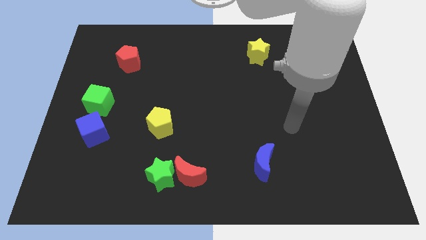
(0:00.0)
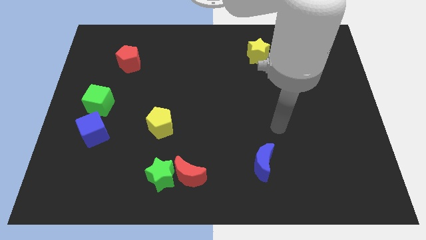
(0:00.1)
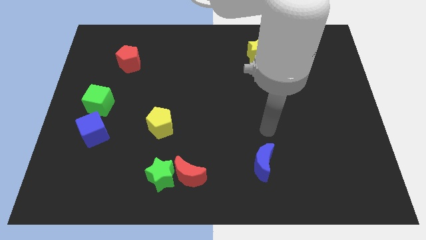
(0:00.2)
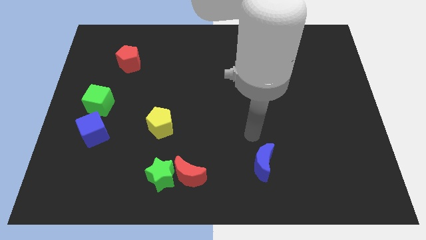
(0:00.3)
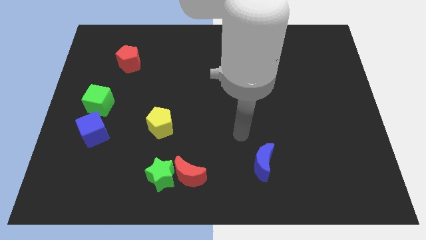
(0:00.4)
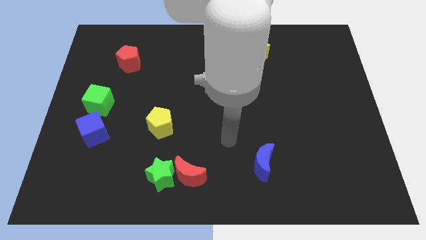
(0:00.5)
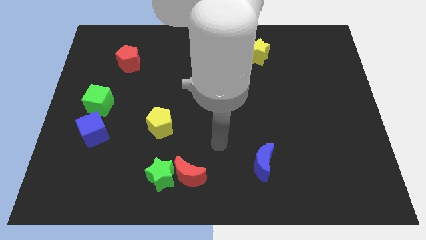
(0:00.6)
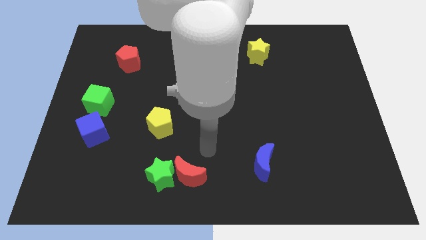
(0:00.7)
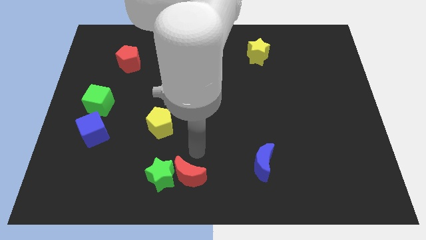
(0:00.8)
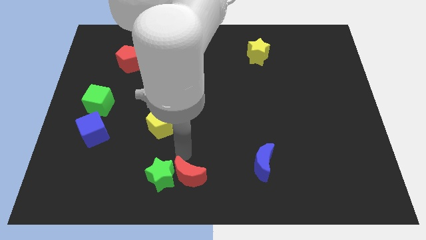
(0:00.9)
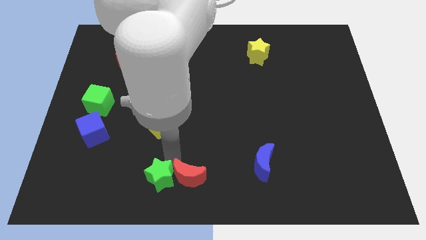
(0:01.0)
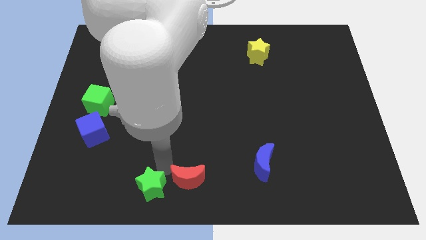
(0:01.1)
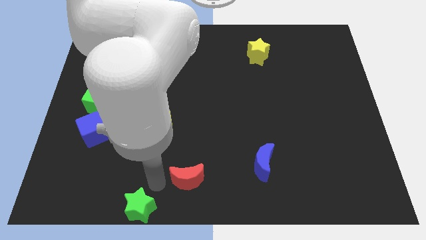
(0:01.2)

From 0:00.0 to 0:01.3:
move the red moon away from the green star

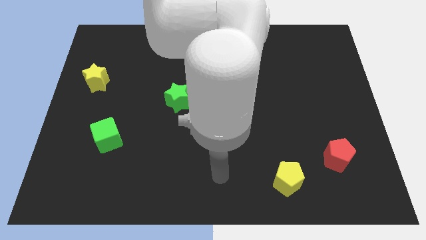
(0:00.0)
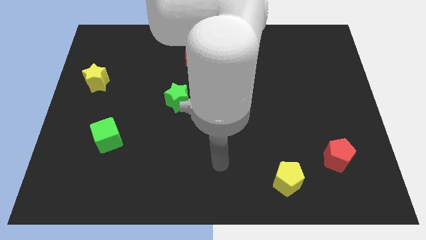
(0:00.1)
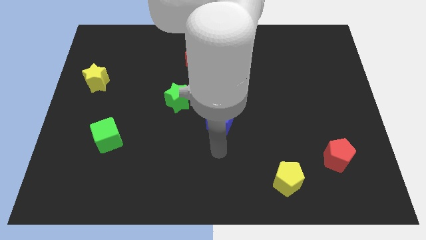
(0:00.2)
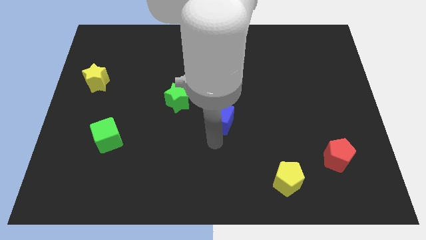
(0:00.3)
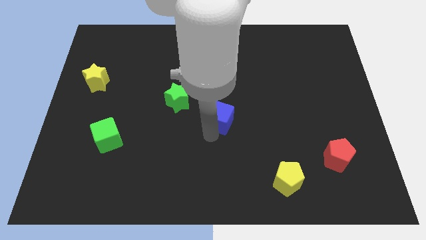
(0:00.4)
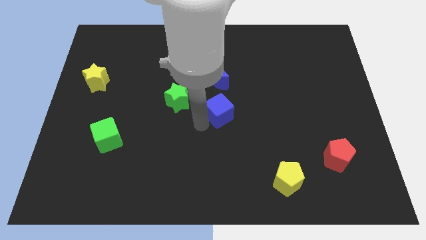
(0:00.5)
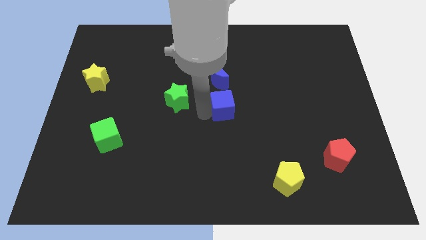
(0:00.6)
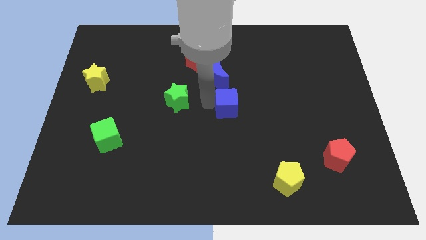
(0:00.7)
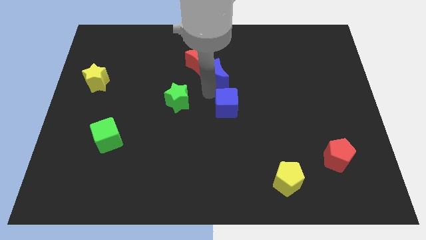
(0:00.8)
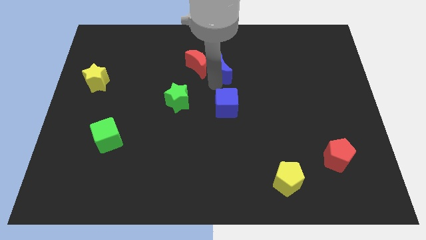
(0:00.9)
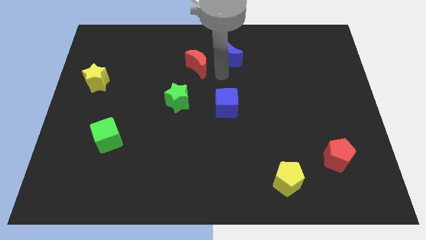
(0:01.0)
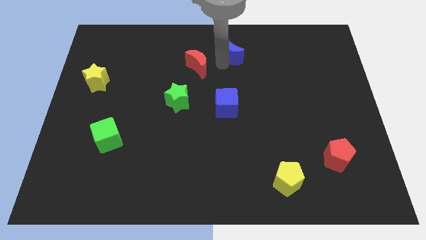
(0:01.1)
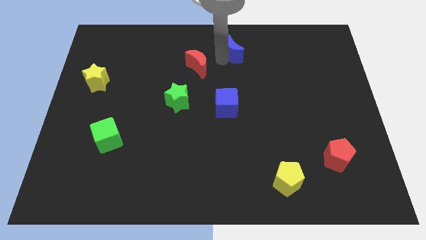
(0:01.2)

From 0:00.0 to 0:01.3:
separate the red moon from the blue moon

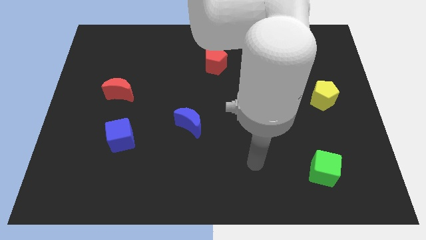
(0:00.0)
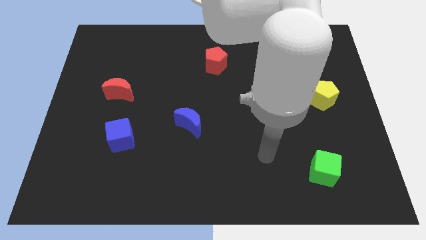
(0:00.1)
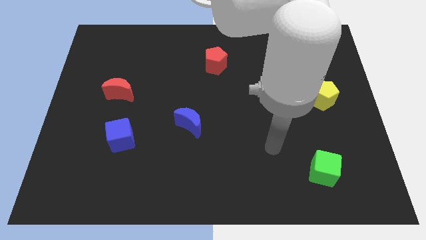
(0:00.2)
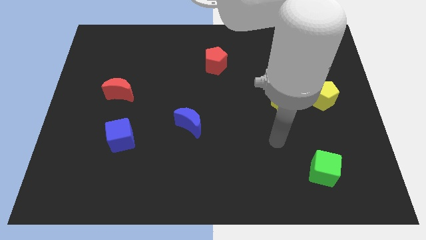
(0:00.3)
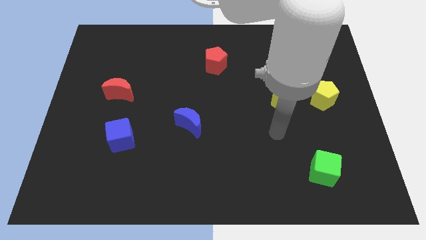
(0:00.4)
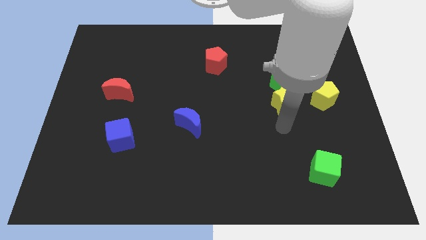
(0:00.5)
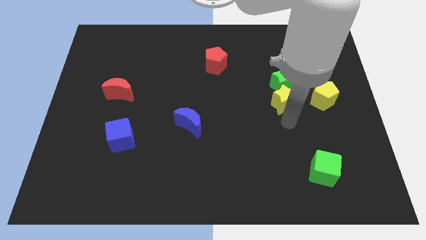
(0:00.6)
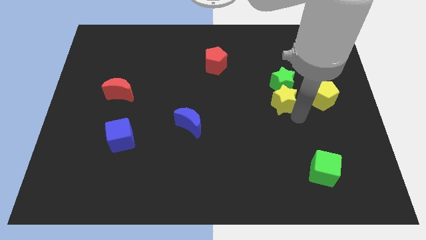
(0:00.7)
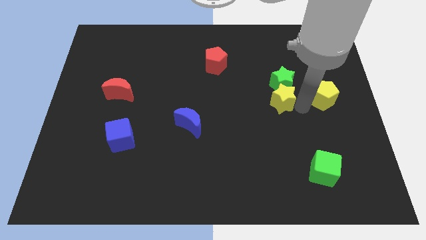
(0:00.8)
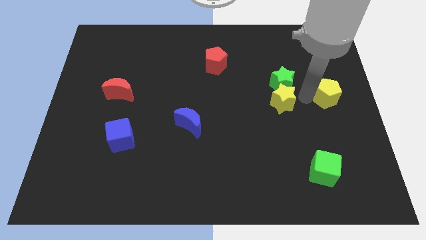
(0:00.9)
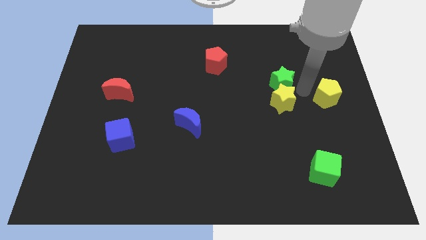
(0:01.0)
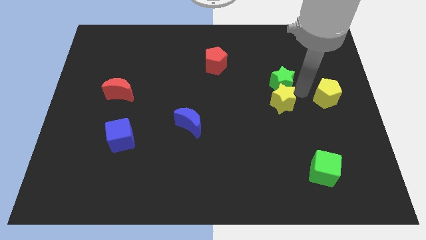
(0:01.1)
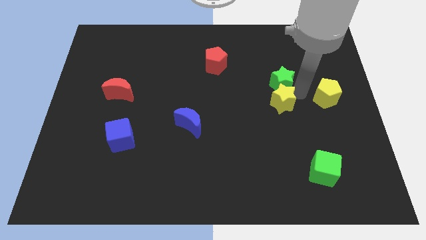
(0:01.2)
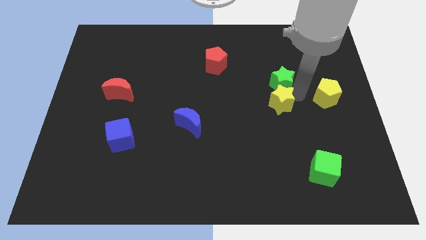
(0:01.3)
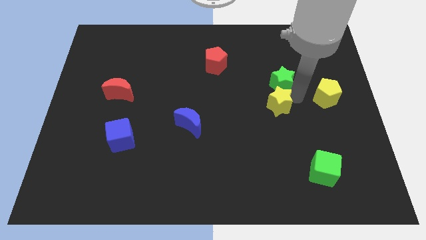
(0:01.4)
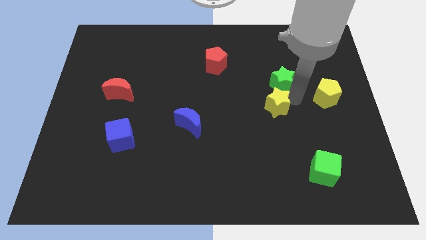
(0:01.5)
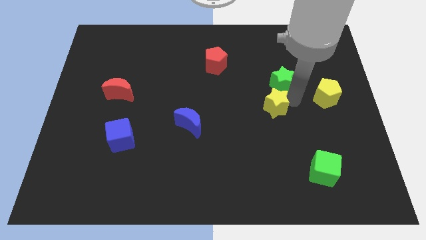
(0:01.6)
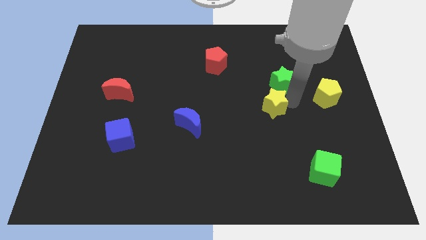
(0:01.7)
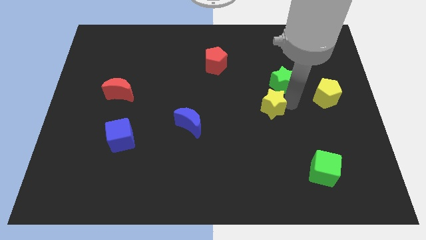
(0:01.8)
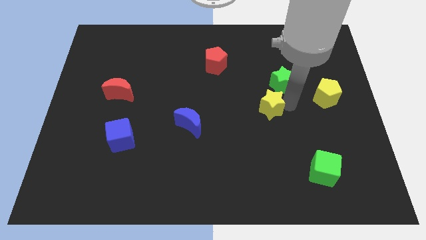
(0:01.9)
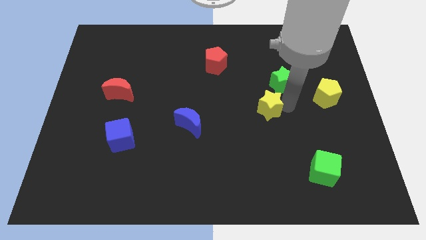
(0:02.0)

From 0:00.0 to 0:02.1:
pull the yellow star apart from the green star and yellow pentagon

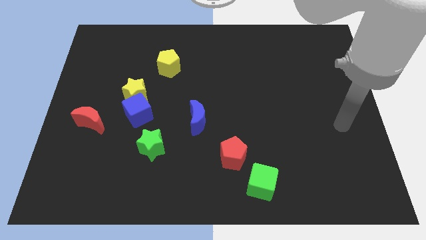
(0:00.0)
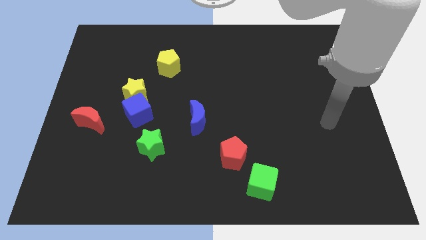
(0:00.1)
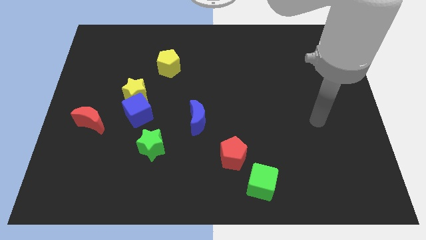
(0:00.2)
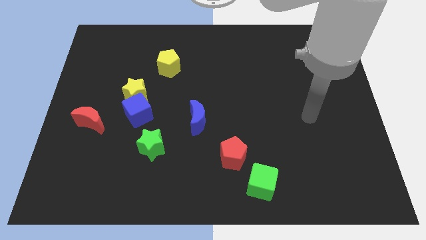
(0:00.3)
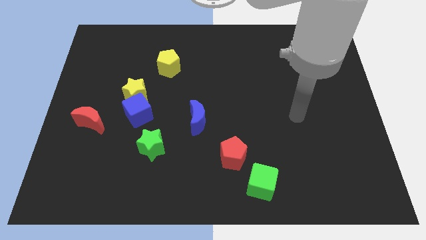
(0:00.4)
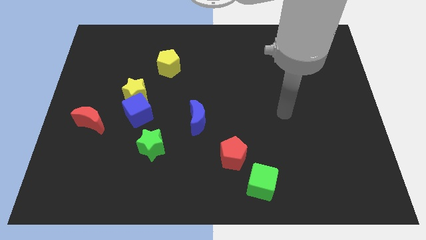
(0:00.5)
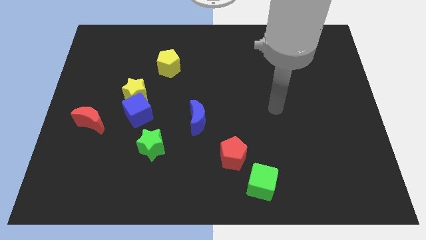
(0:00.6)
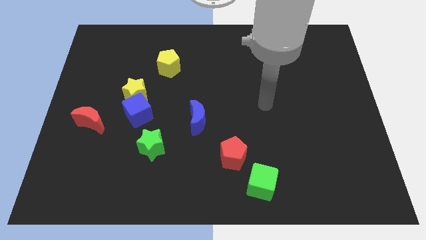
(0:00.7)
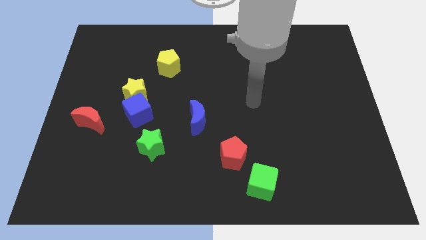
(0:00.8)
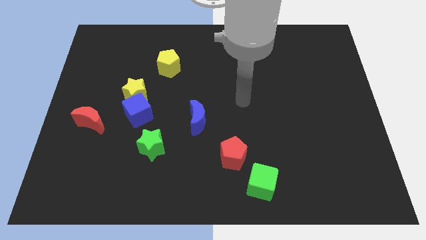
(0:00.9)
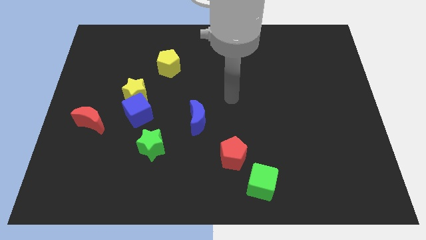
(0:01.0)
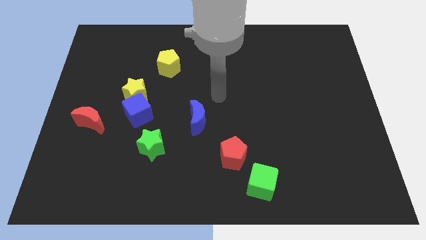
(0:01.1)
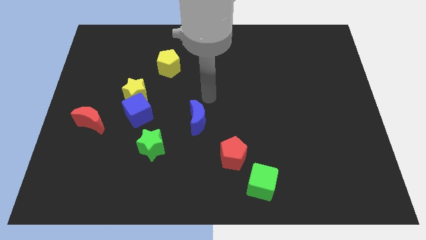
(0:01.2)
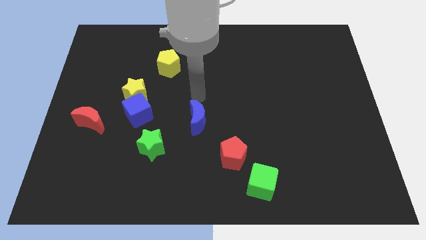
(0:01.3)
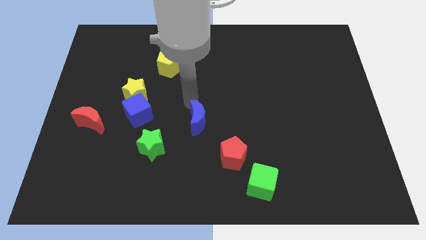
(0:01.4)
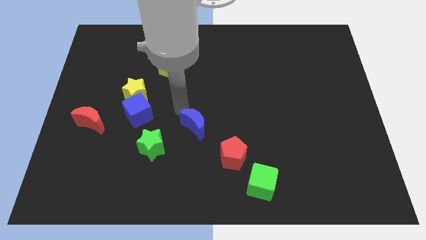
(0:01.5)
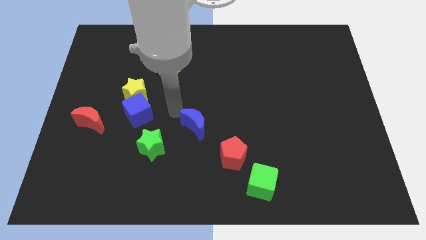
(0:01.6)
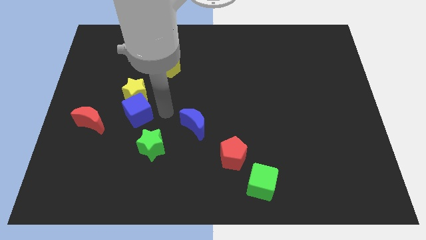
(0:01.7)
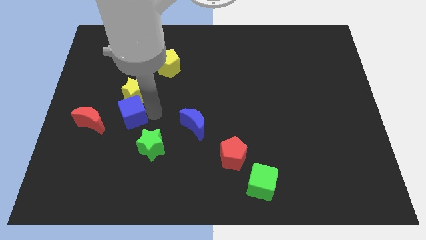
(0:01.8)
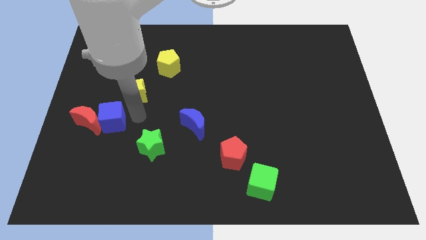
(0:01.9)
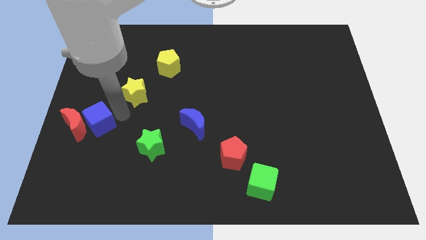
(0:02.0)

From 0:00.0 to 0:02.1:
separate the yellow star from the blue cube

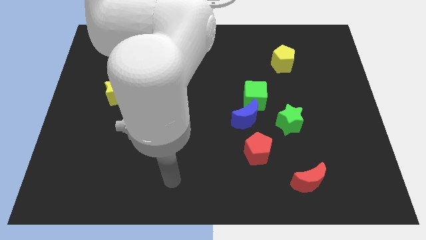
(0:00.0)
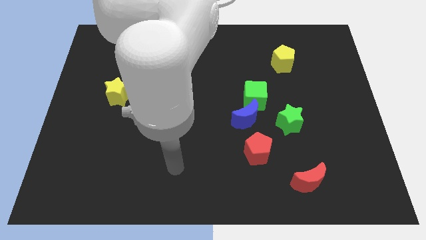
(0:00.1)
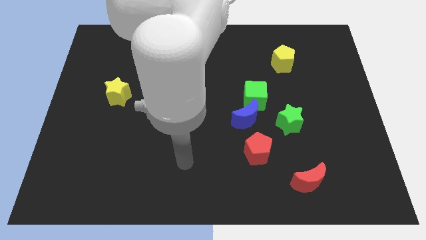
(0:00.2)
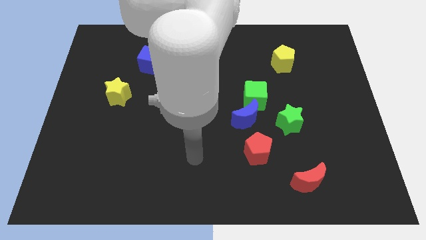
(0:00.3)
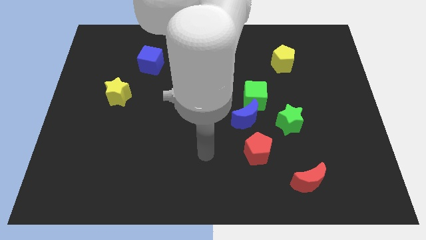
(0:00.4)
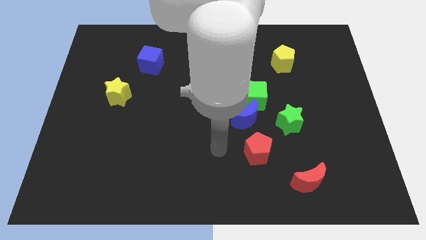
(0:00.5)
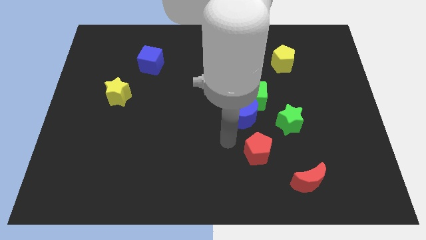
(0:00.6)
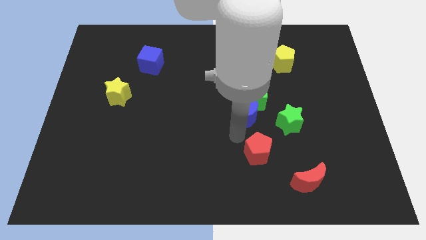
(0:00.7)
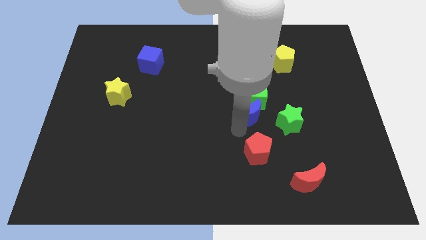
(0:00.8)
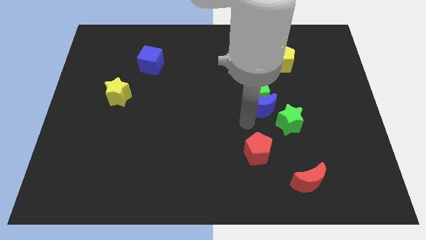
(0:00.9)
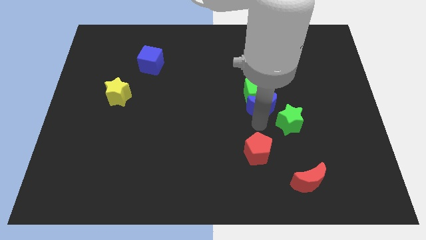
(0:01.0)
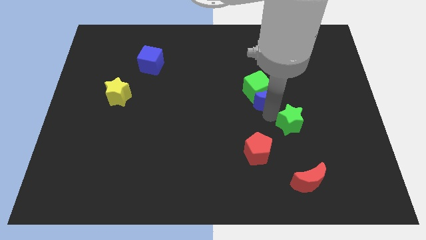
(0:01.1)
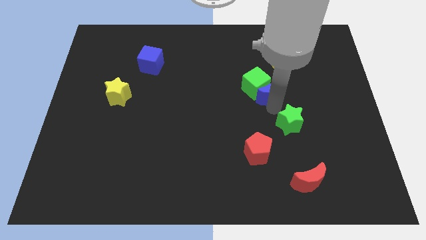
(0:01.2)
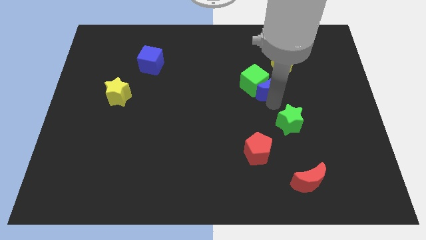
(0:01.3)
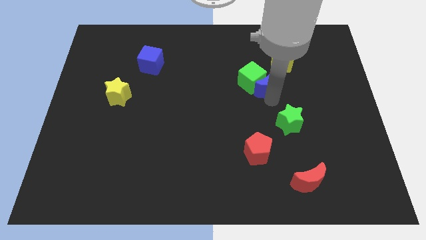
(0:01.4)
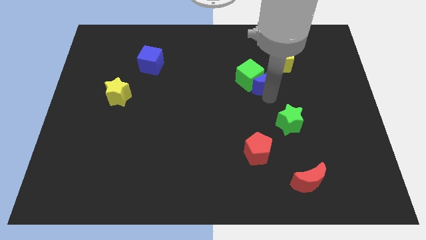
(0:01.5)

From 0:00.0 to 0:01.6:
separate the green cube from the blue moon and green star

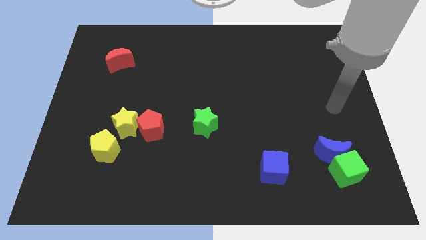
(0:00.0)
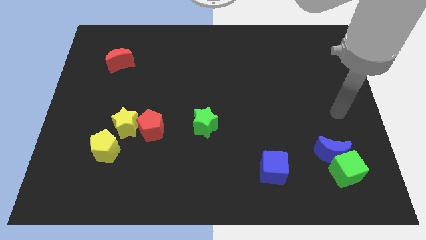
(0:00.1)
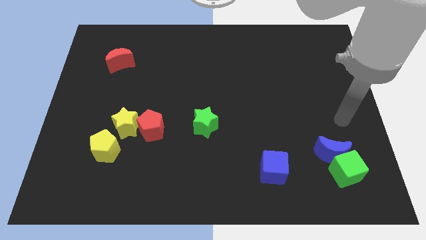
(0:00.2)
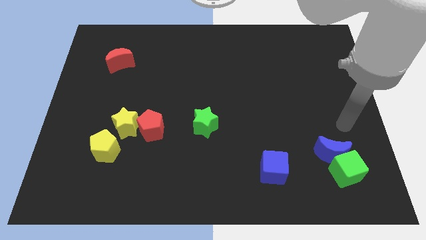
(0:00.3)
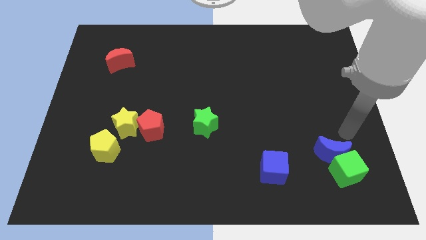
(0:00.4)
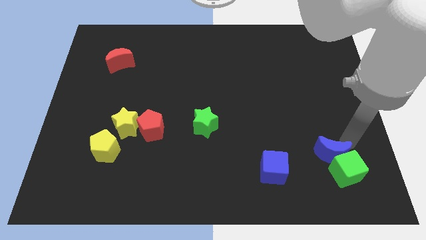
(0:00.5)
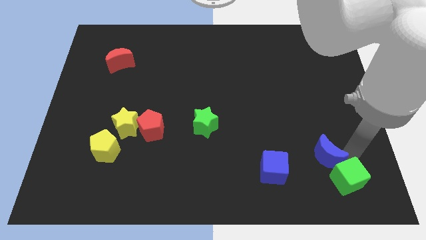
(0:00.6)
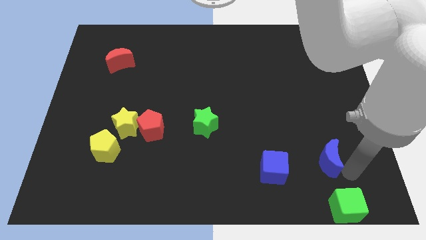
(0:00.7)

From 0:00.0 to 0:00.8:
move the blue moon away from the green cube
